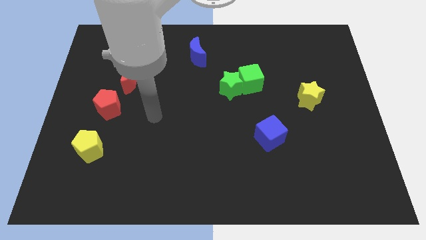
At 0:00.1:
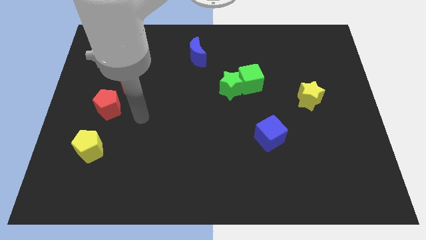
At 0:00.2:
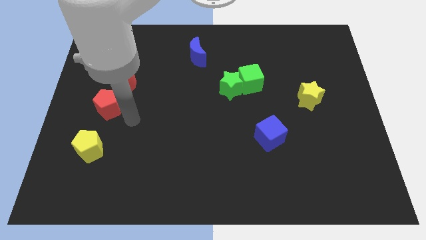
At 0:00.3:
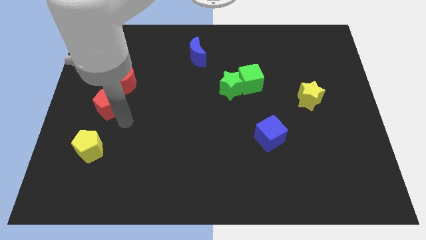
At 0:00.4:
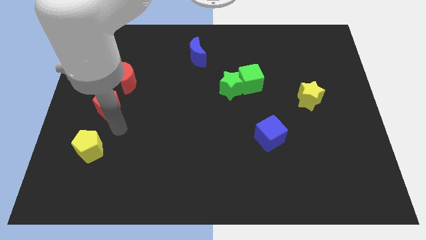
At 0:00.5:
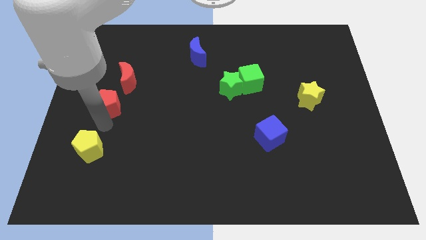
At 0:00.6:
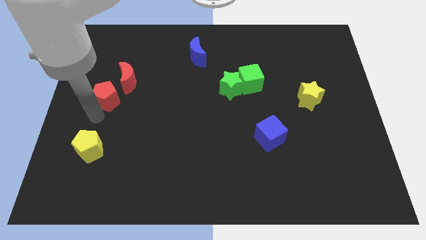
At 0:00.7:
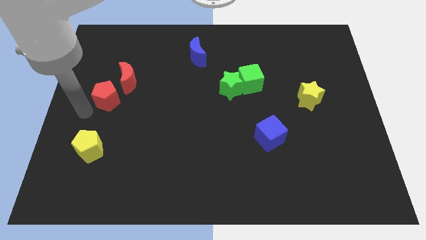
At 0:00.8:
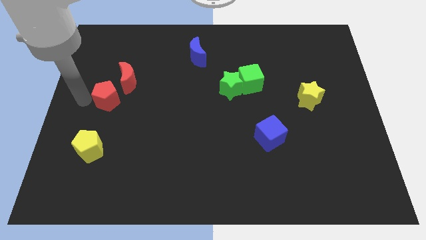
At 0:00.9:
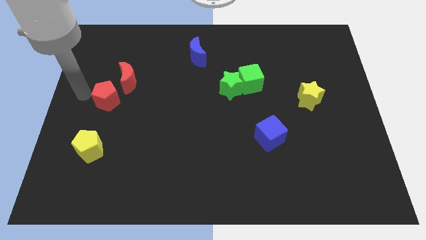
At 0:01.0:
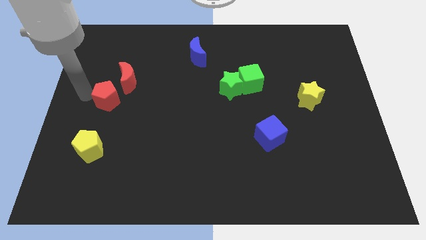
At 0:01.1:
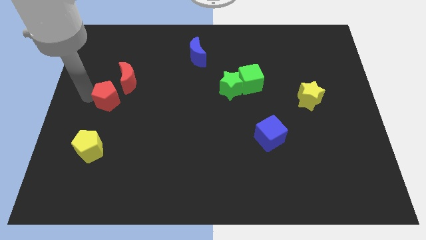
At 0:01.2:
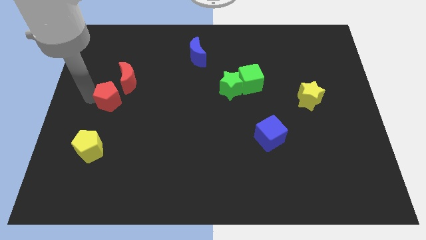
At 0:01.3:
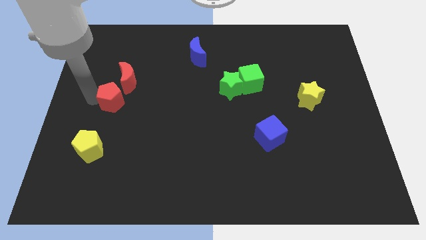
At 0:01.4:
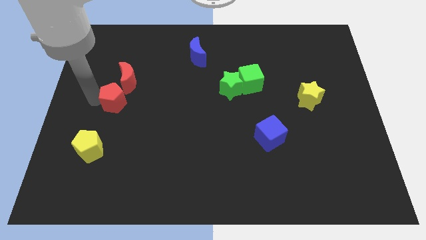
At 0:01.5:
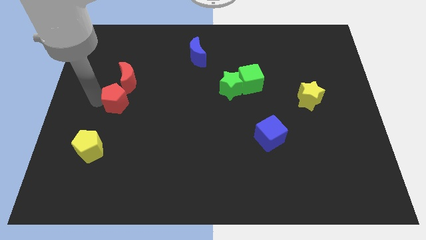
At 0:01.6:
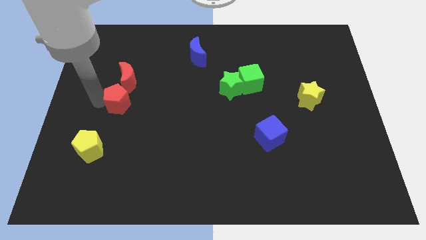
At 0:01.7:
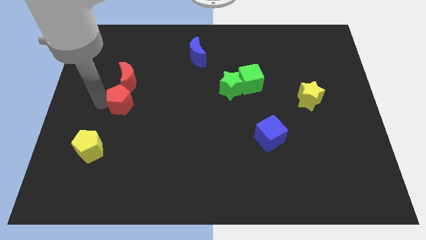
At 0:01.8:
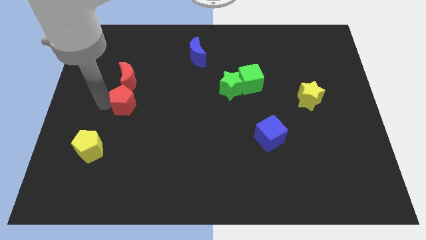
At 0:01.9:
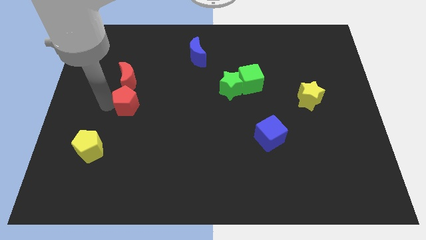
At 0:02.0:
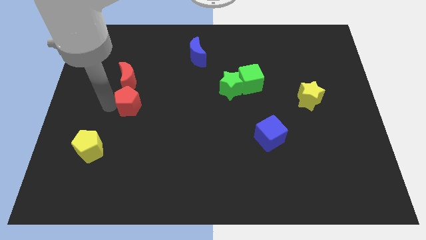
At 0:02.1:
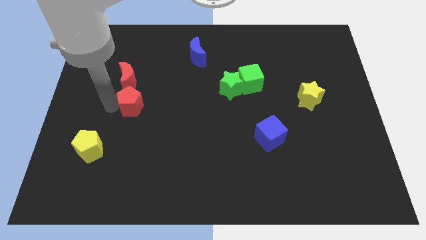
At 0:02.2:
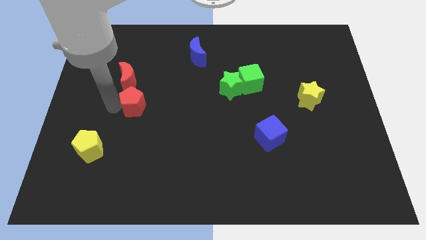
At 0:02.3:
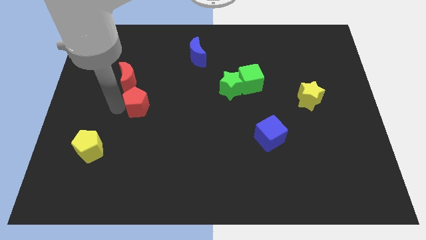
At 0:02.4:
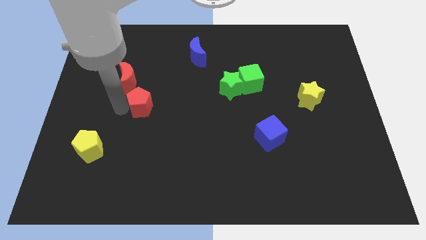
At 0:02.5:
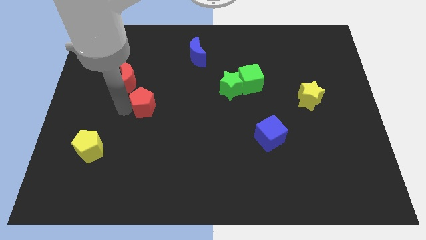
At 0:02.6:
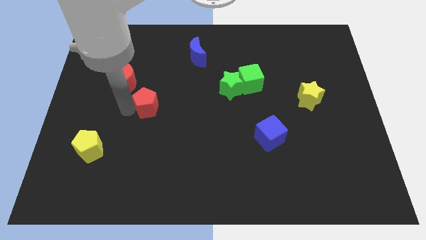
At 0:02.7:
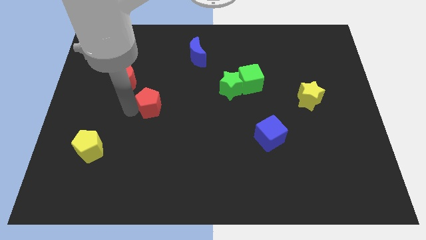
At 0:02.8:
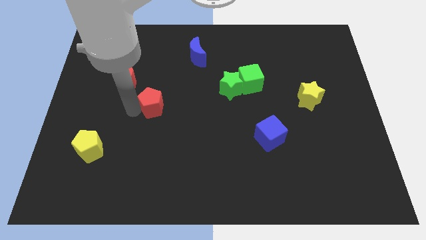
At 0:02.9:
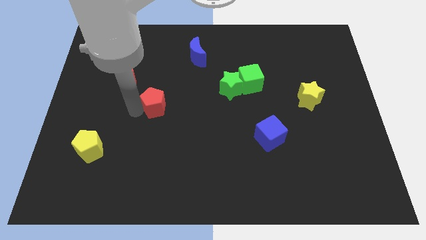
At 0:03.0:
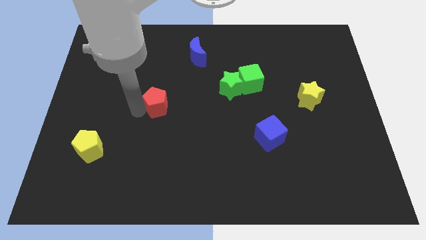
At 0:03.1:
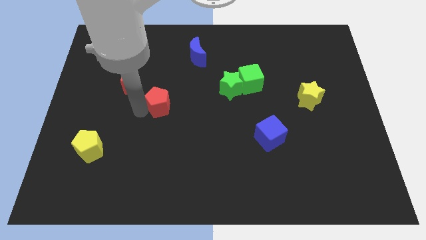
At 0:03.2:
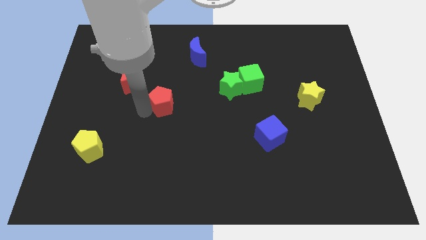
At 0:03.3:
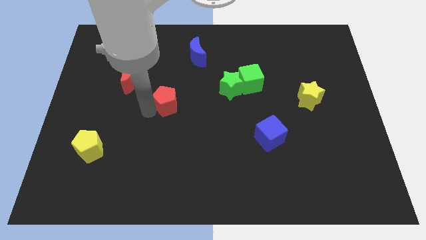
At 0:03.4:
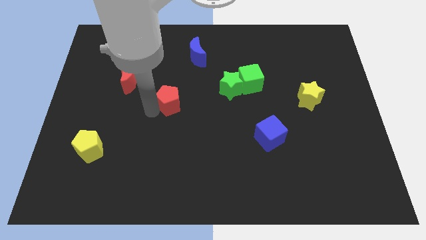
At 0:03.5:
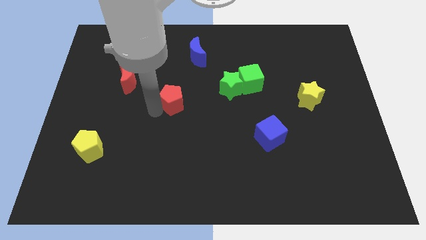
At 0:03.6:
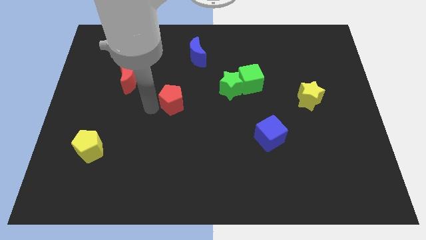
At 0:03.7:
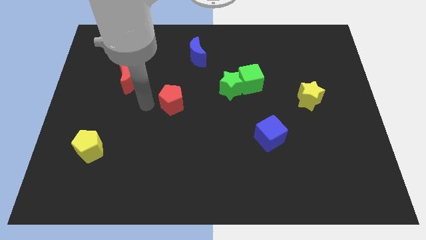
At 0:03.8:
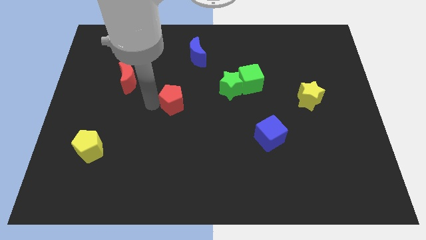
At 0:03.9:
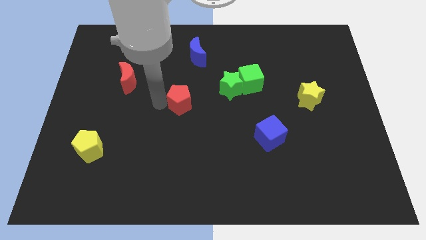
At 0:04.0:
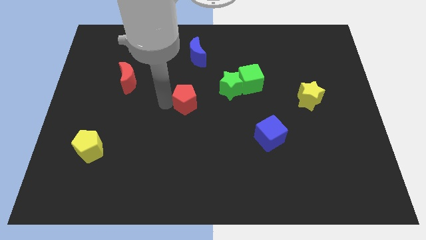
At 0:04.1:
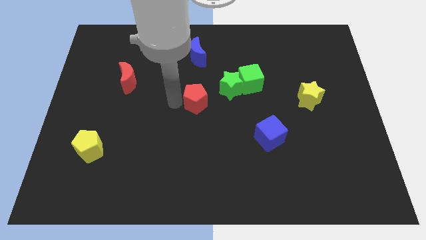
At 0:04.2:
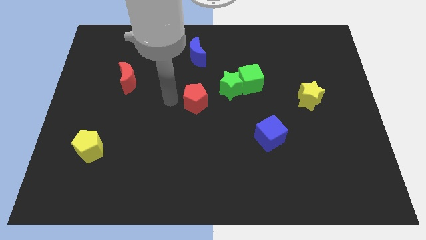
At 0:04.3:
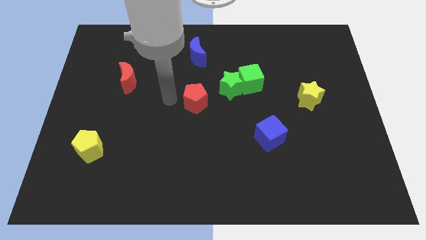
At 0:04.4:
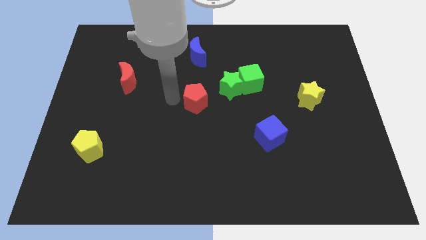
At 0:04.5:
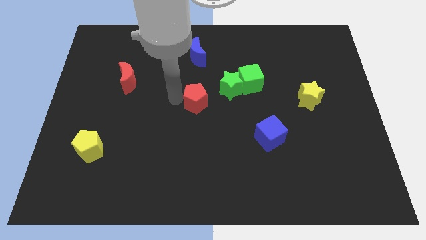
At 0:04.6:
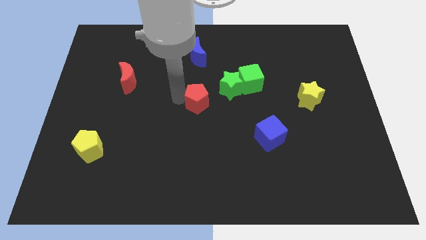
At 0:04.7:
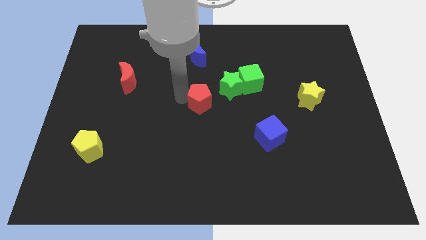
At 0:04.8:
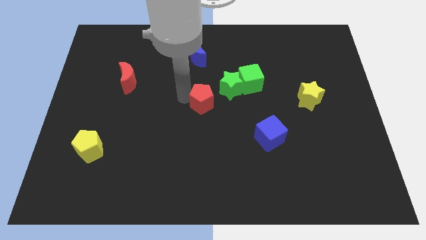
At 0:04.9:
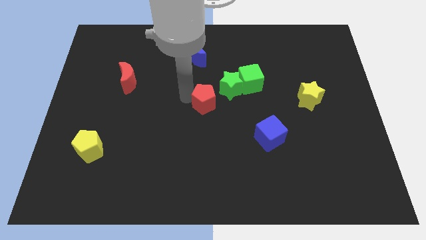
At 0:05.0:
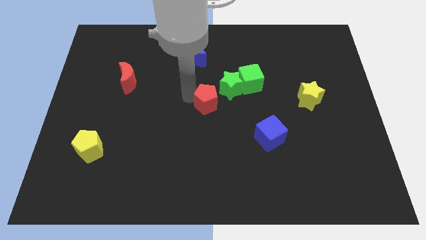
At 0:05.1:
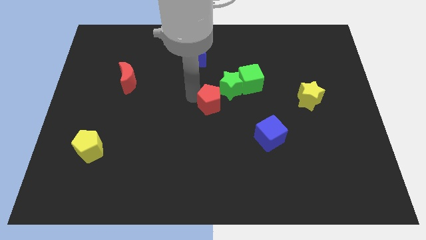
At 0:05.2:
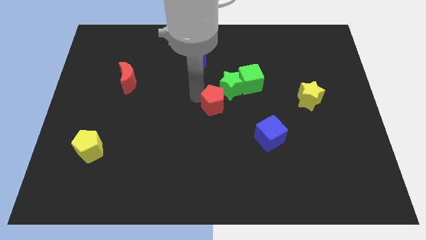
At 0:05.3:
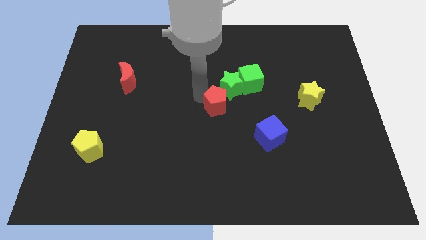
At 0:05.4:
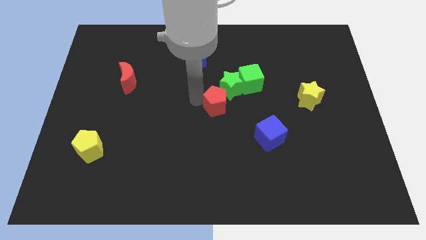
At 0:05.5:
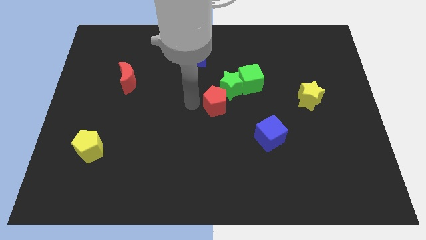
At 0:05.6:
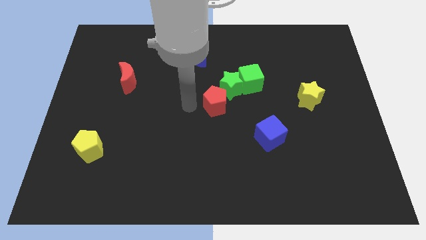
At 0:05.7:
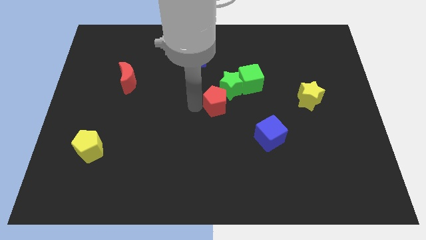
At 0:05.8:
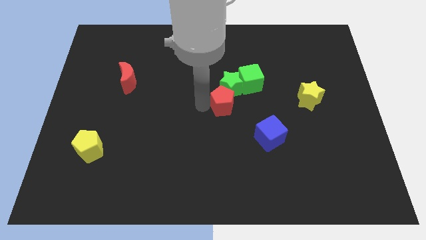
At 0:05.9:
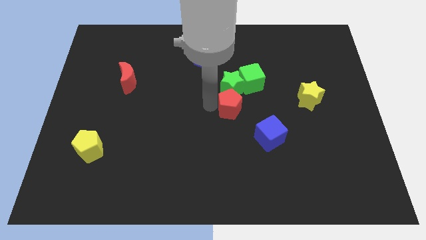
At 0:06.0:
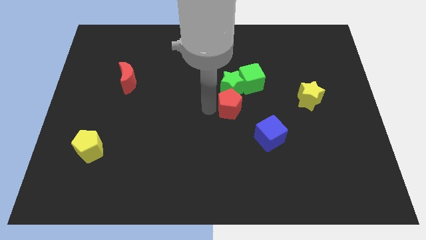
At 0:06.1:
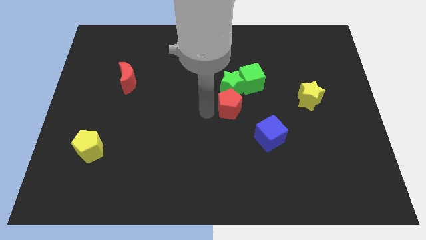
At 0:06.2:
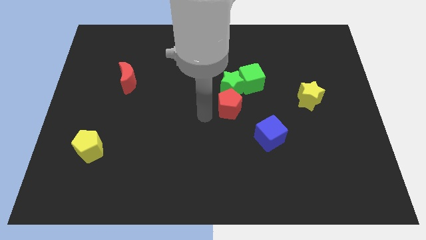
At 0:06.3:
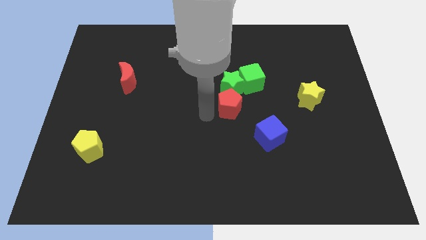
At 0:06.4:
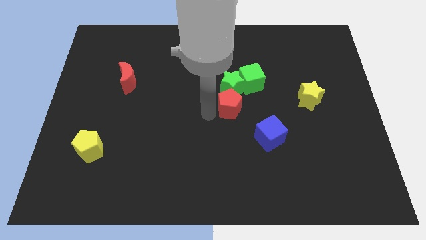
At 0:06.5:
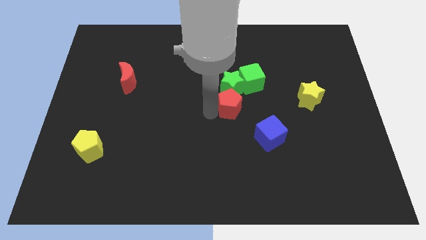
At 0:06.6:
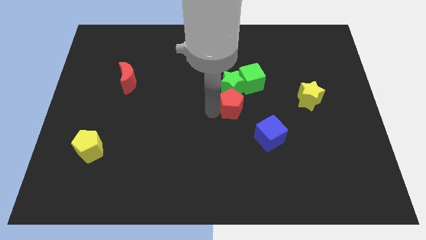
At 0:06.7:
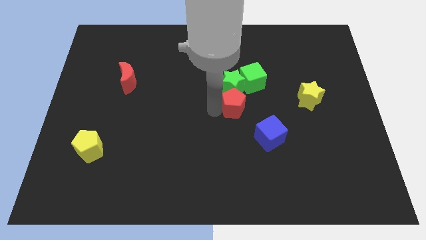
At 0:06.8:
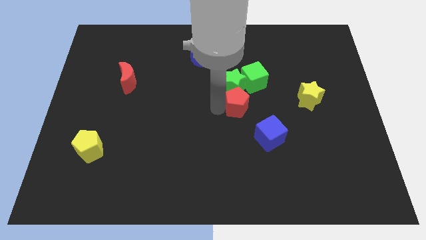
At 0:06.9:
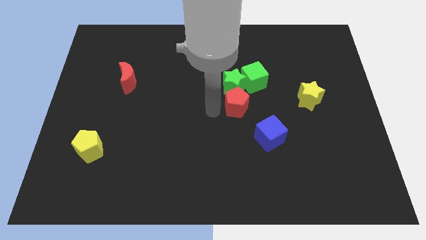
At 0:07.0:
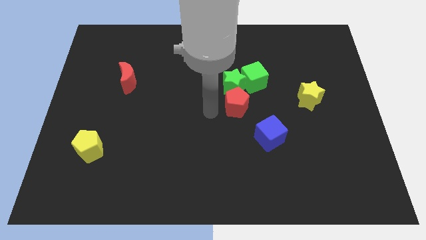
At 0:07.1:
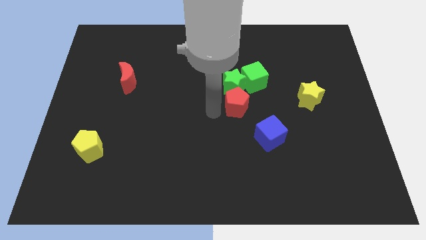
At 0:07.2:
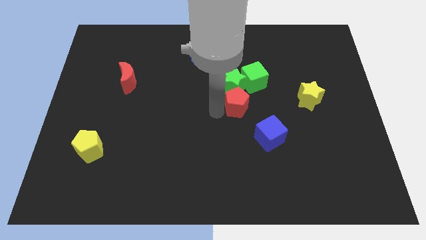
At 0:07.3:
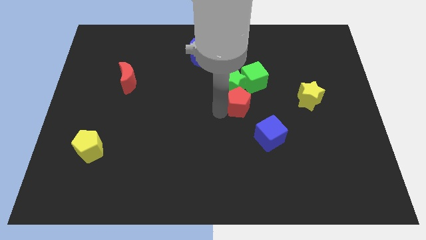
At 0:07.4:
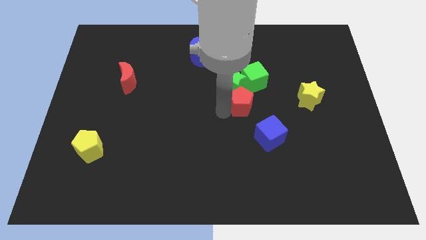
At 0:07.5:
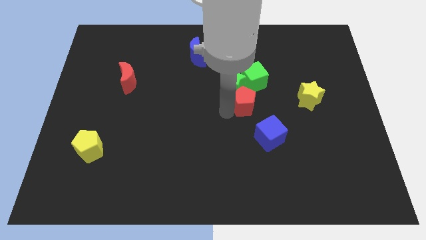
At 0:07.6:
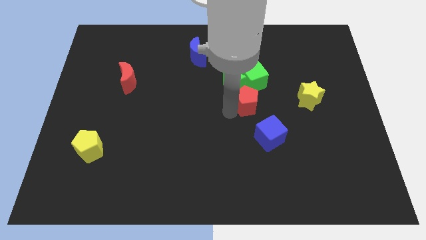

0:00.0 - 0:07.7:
push the red pentagon to the top of the blue cube
